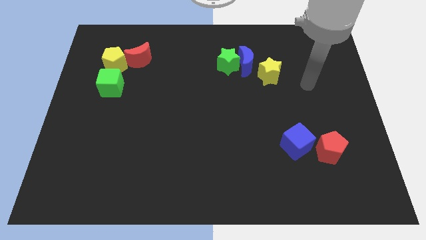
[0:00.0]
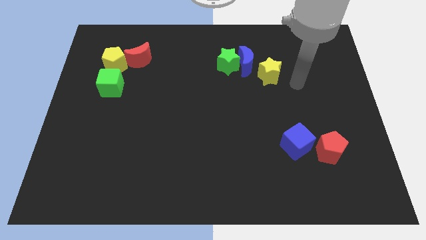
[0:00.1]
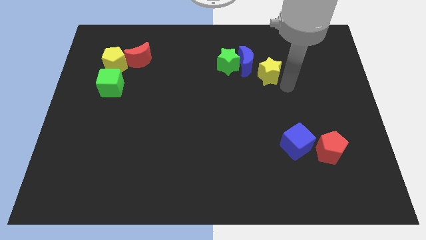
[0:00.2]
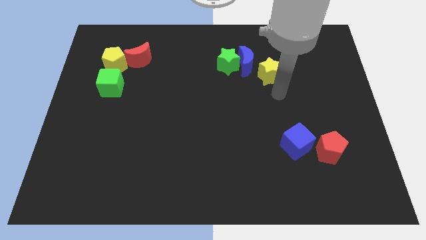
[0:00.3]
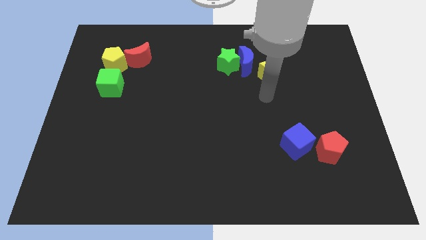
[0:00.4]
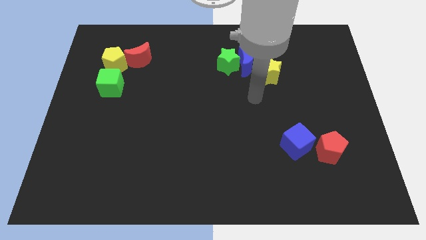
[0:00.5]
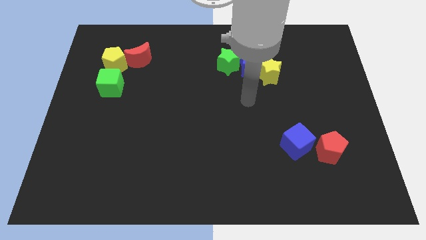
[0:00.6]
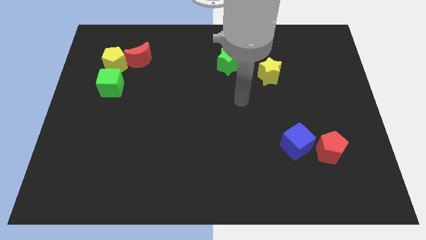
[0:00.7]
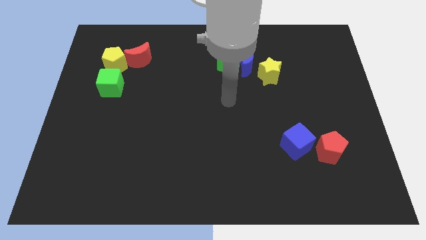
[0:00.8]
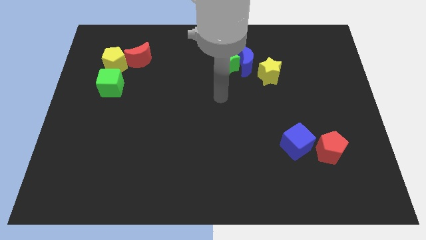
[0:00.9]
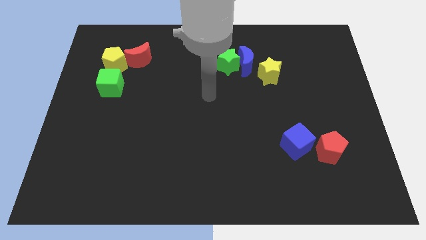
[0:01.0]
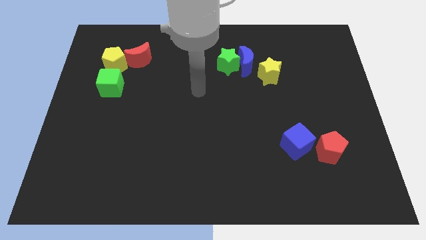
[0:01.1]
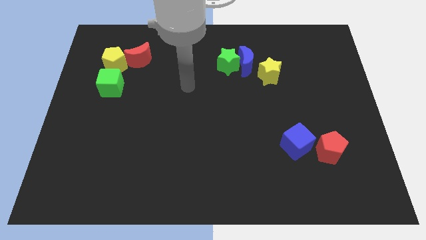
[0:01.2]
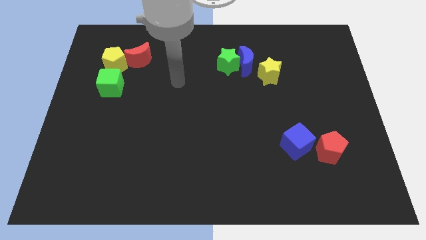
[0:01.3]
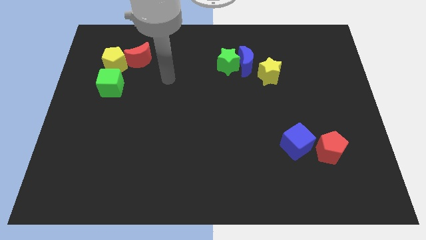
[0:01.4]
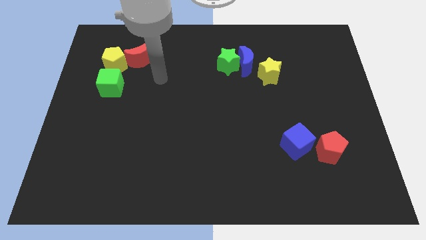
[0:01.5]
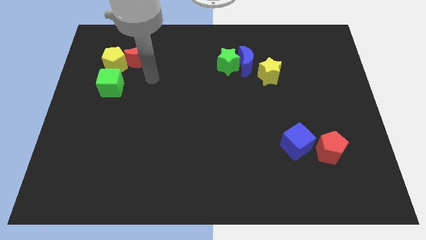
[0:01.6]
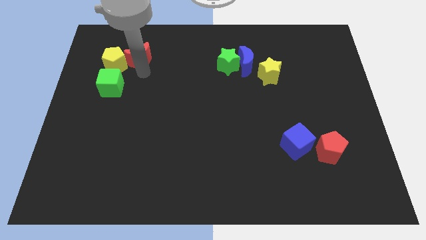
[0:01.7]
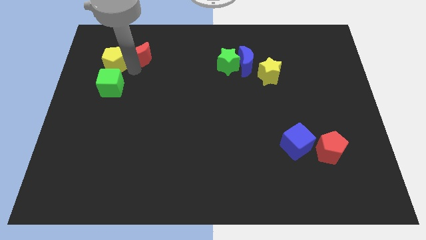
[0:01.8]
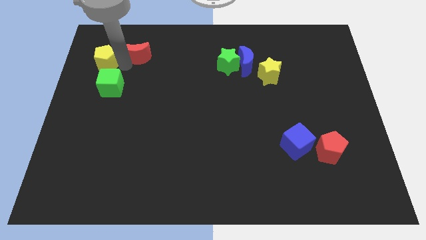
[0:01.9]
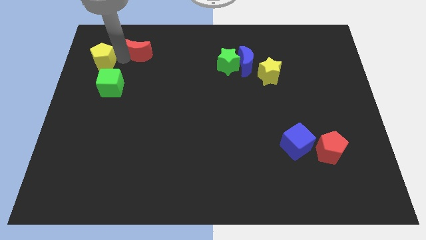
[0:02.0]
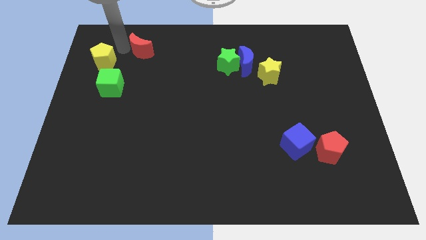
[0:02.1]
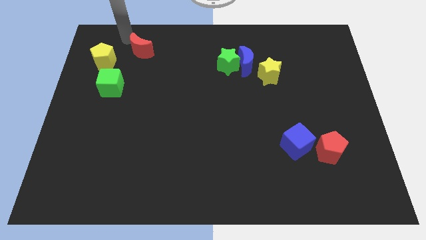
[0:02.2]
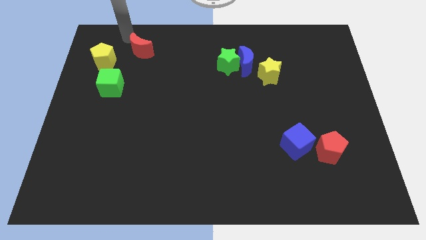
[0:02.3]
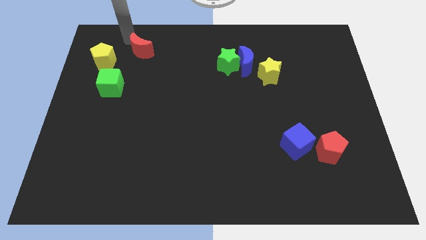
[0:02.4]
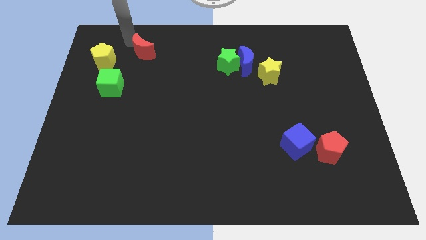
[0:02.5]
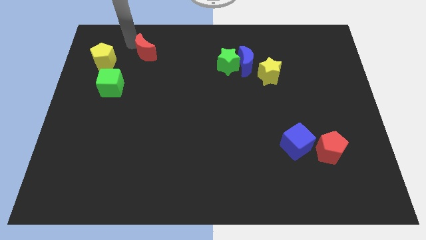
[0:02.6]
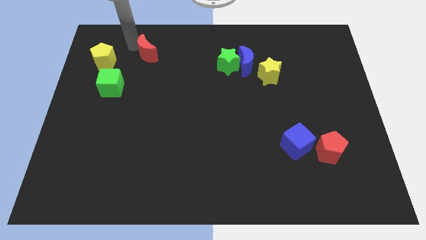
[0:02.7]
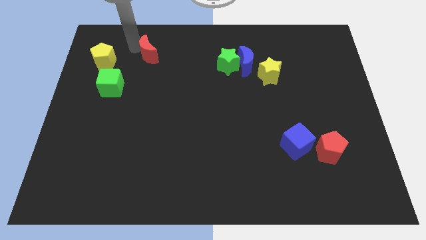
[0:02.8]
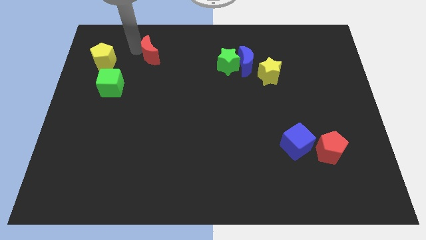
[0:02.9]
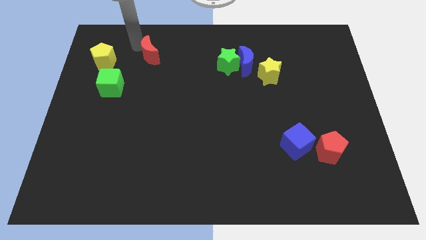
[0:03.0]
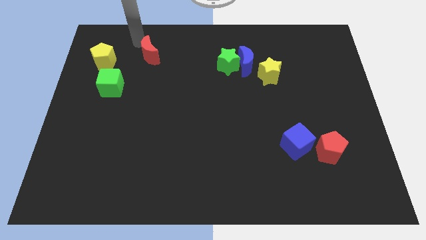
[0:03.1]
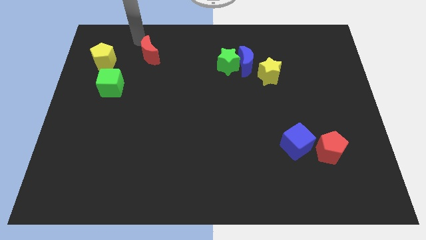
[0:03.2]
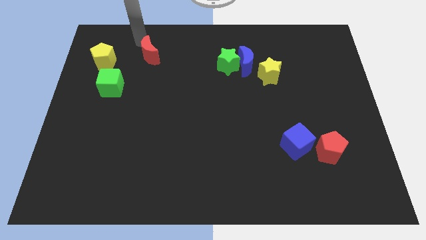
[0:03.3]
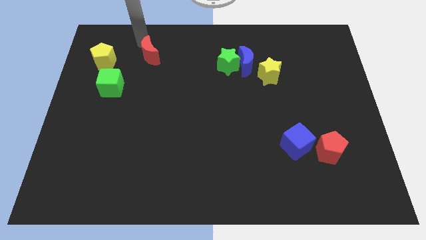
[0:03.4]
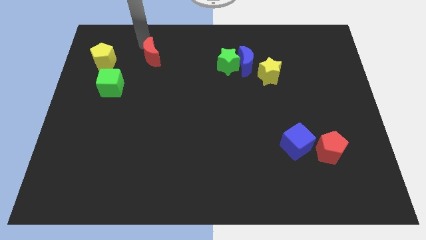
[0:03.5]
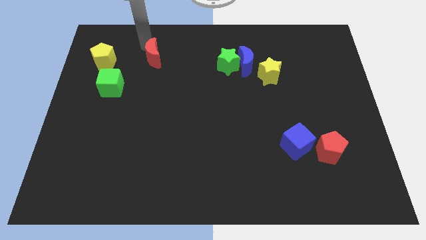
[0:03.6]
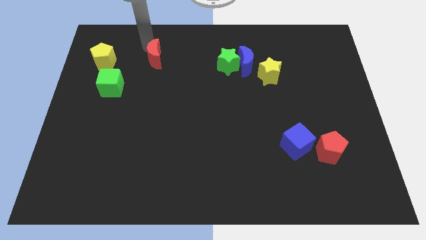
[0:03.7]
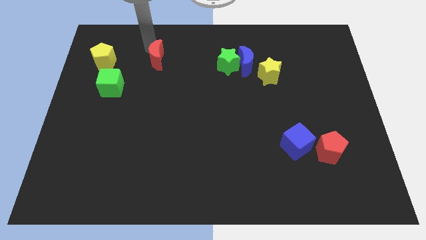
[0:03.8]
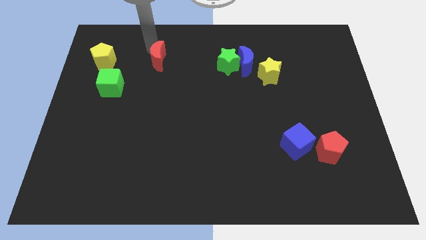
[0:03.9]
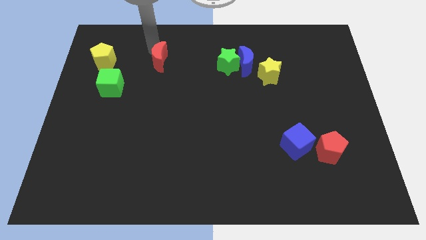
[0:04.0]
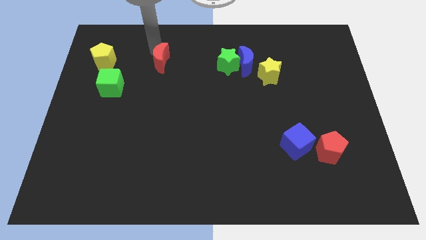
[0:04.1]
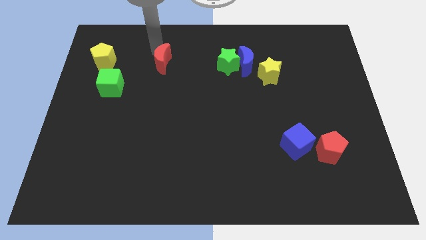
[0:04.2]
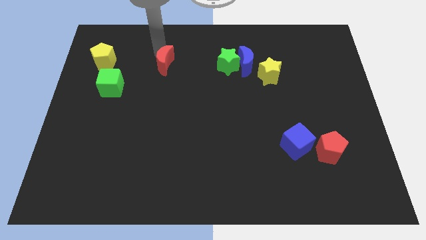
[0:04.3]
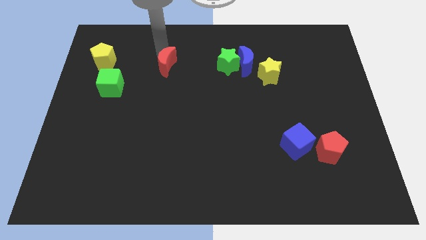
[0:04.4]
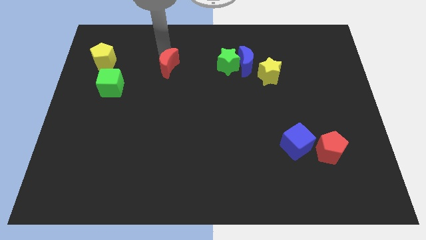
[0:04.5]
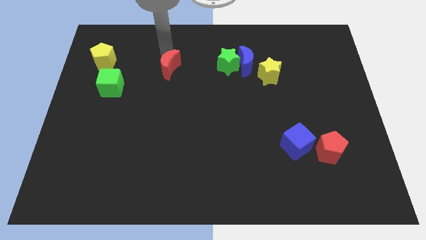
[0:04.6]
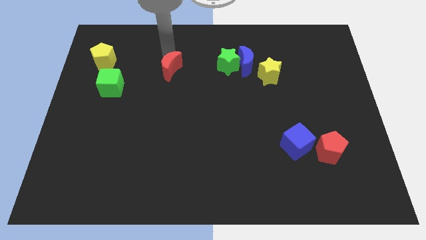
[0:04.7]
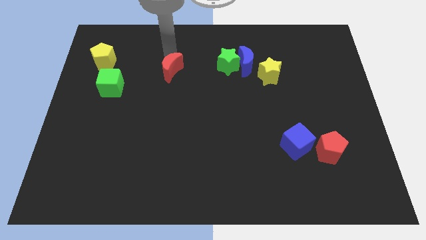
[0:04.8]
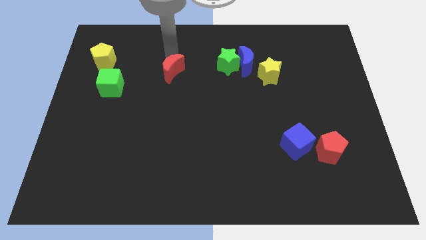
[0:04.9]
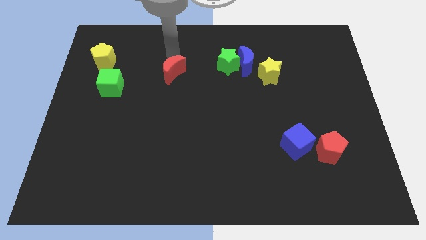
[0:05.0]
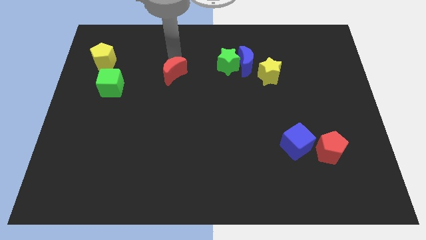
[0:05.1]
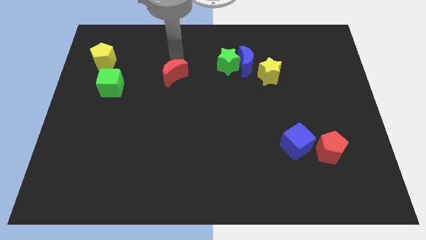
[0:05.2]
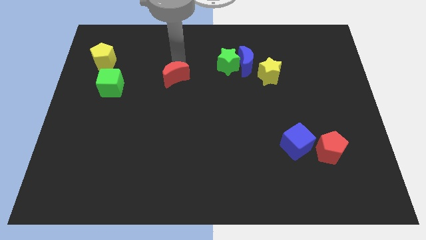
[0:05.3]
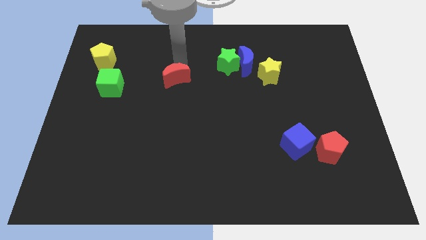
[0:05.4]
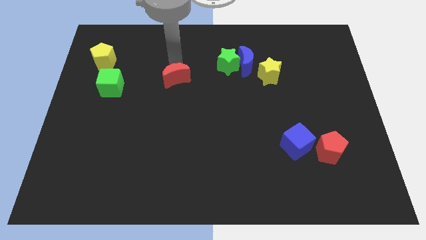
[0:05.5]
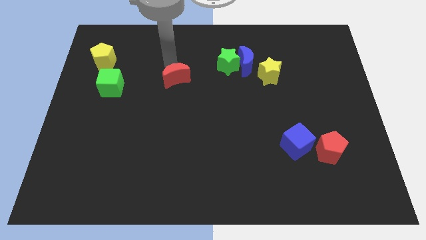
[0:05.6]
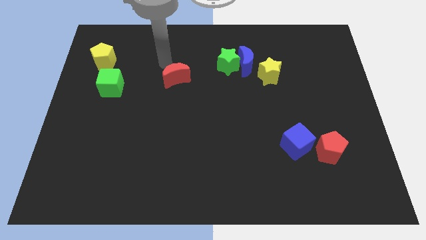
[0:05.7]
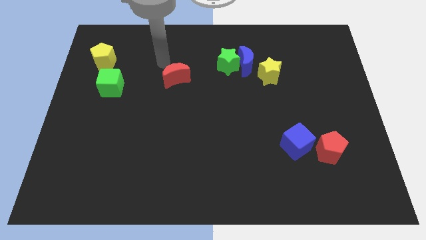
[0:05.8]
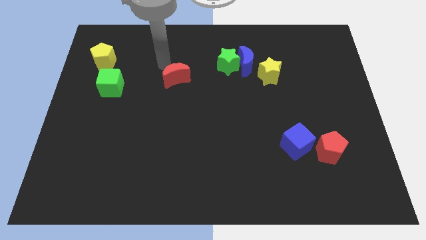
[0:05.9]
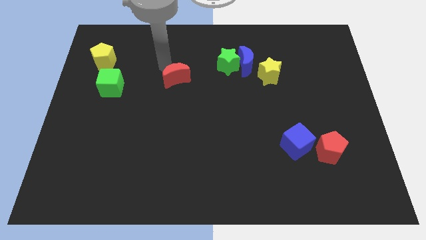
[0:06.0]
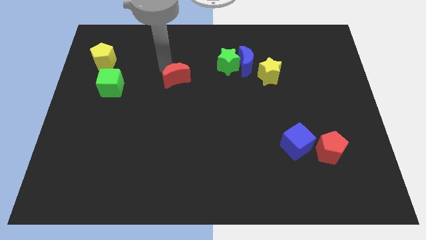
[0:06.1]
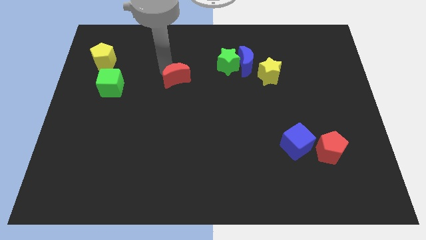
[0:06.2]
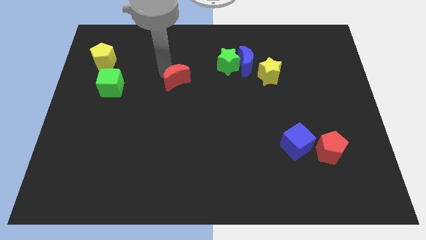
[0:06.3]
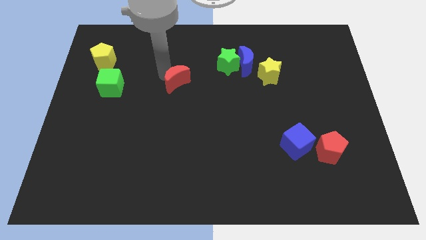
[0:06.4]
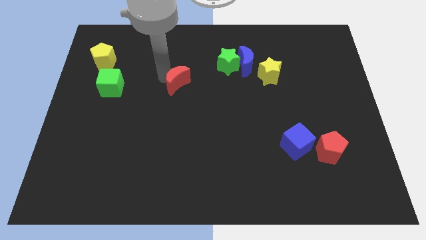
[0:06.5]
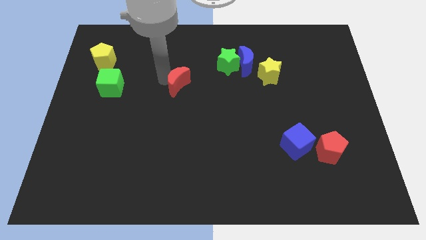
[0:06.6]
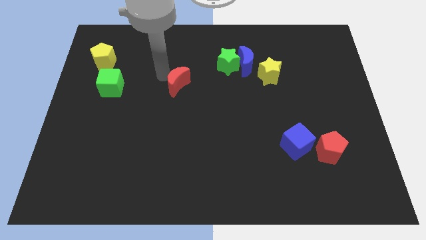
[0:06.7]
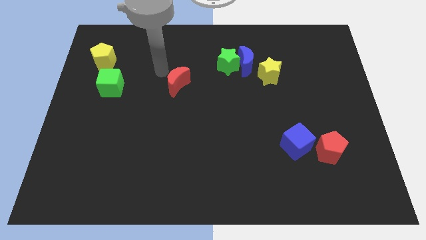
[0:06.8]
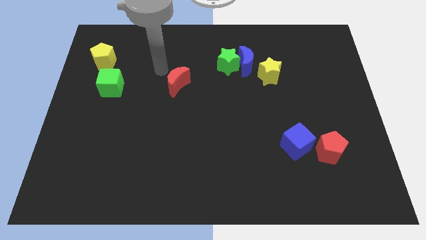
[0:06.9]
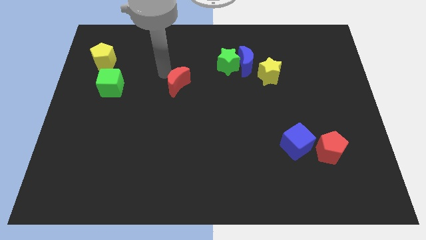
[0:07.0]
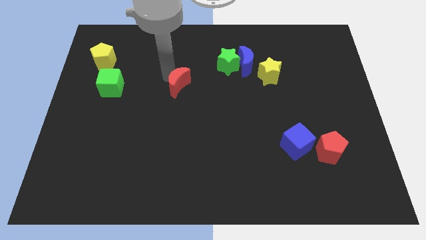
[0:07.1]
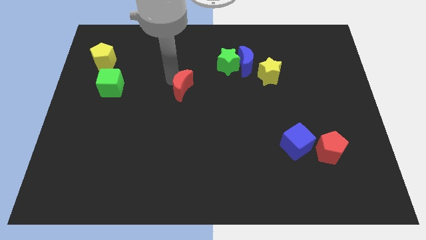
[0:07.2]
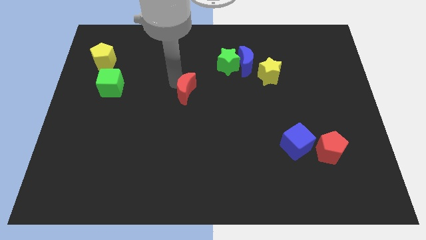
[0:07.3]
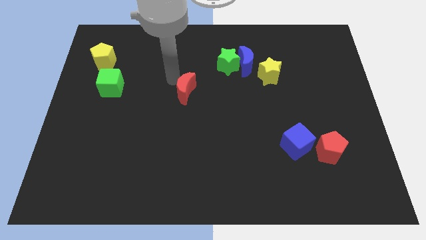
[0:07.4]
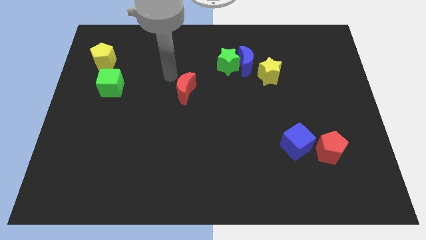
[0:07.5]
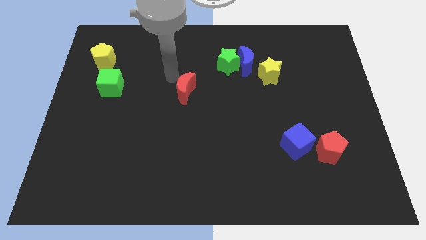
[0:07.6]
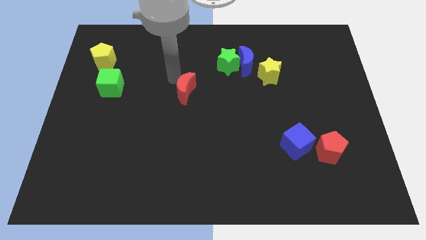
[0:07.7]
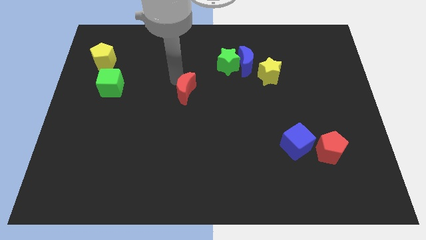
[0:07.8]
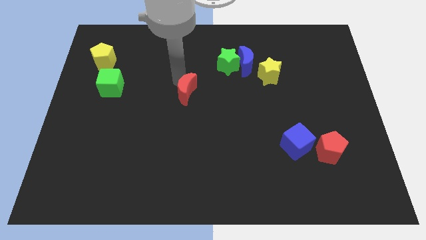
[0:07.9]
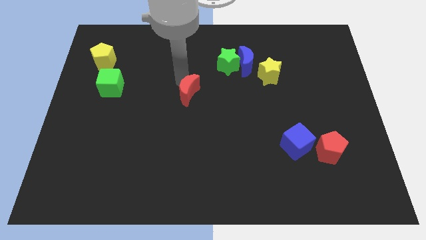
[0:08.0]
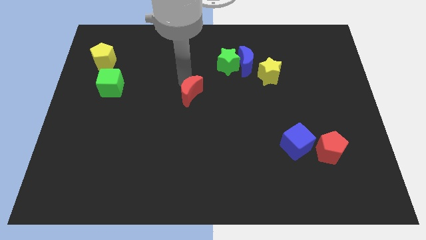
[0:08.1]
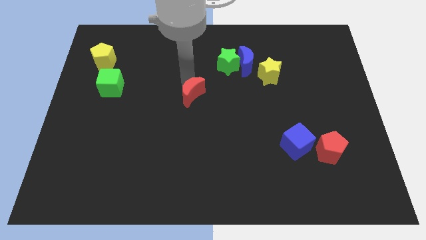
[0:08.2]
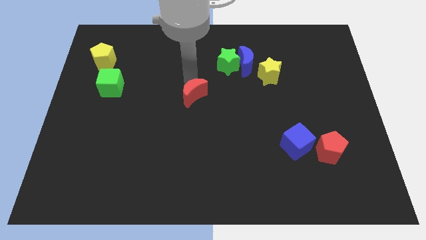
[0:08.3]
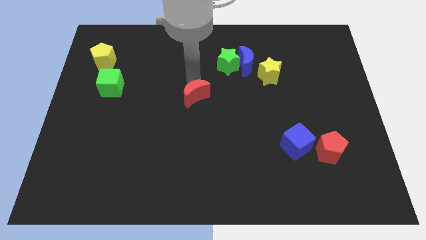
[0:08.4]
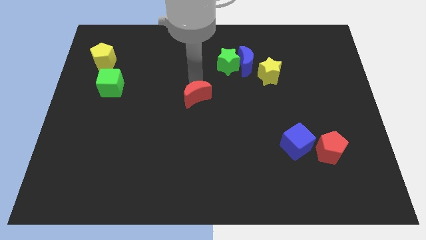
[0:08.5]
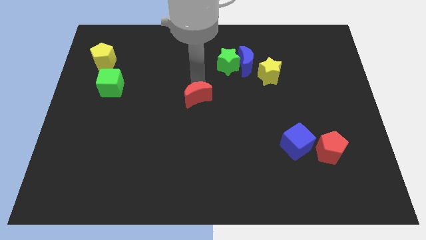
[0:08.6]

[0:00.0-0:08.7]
move the red moon diagonally down and to the right
